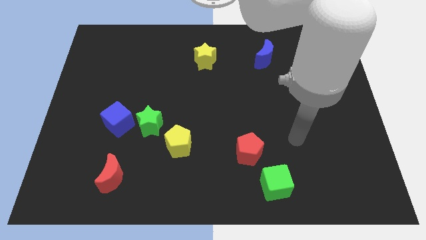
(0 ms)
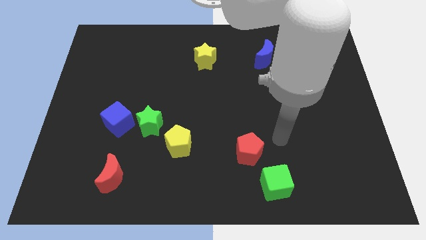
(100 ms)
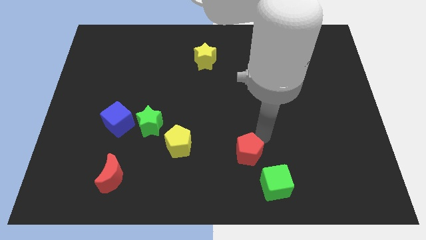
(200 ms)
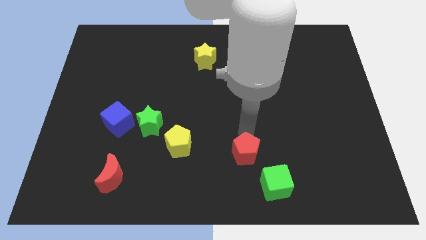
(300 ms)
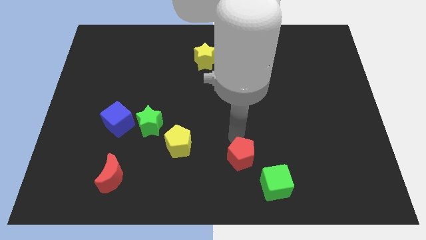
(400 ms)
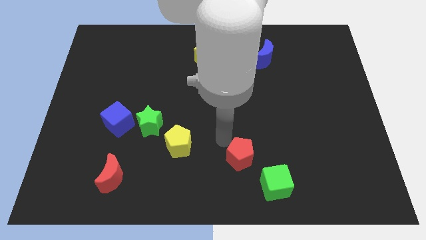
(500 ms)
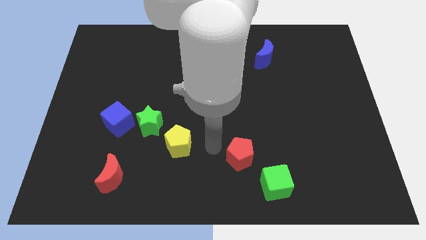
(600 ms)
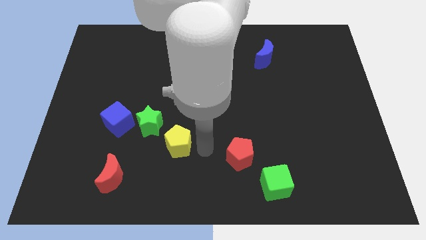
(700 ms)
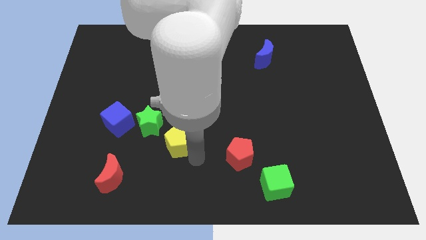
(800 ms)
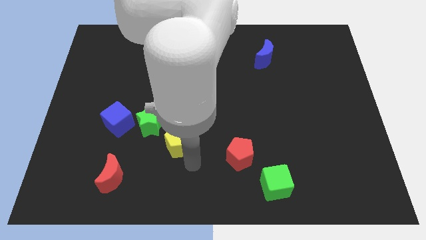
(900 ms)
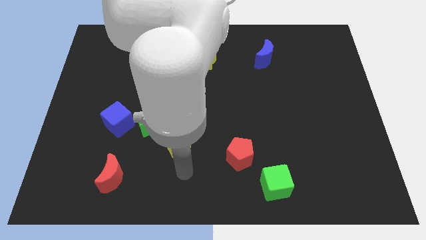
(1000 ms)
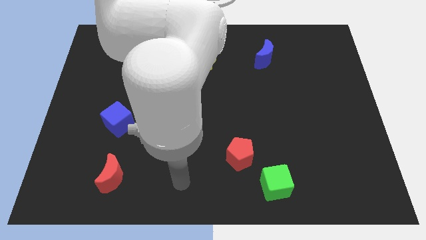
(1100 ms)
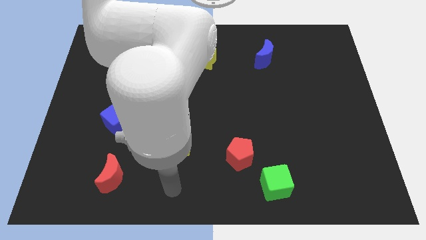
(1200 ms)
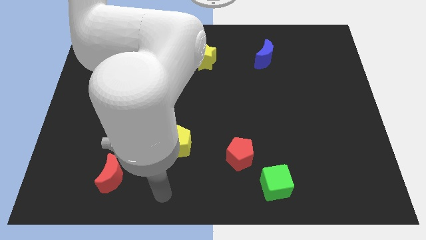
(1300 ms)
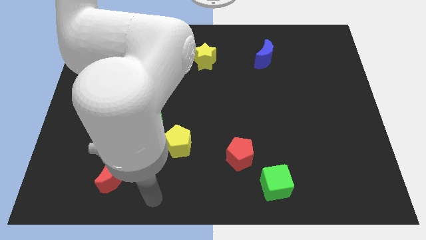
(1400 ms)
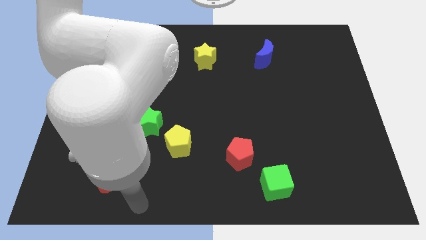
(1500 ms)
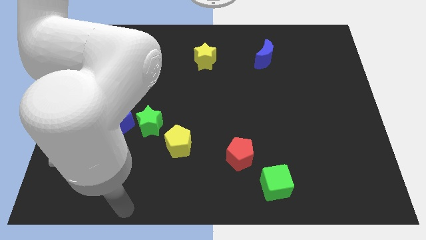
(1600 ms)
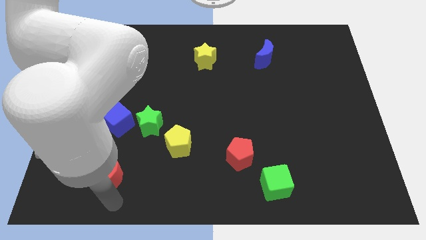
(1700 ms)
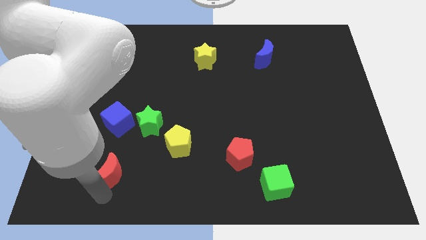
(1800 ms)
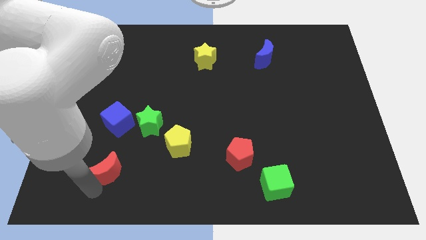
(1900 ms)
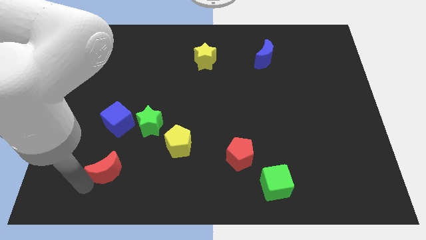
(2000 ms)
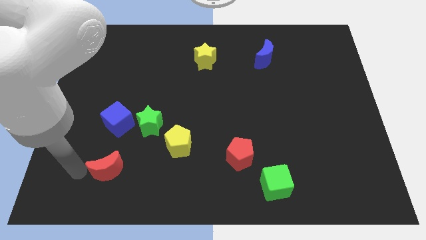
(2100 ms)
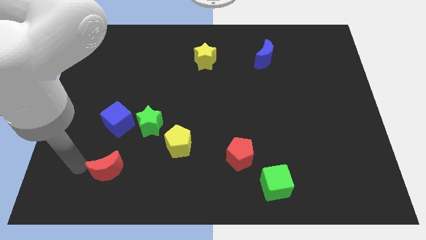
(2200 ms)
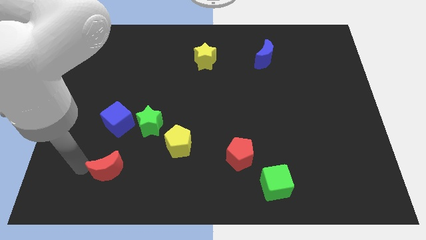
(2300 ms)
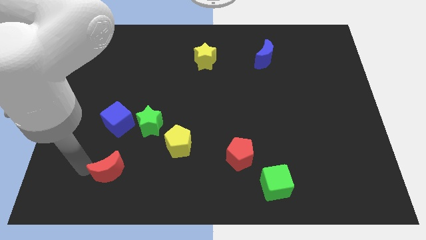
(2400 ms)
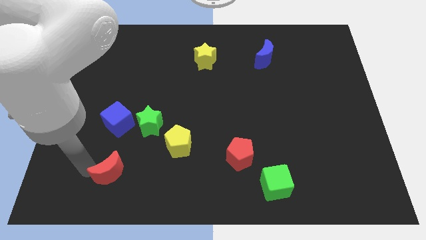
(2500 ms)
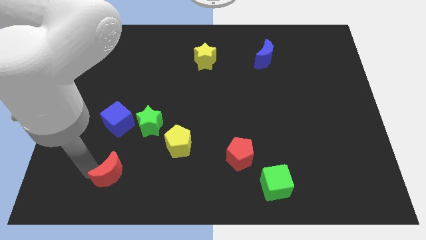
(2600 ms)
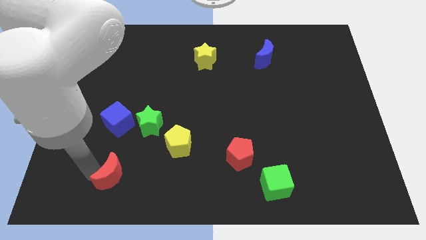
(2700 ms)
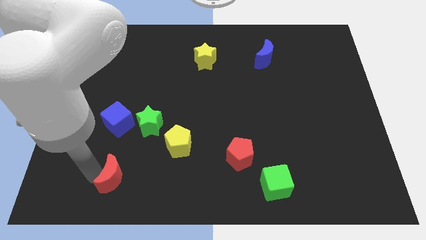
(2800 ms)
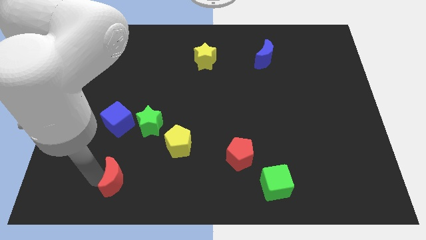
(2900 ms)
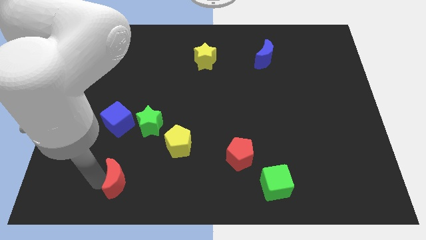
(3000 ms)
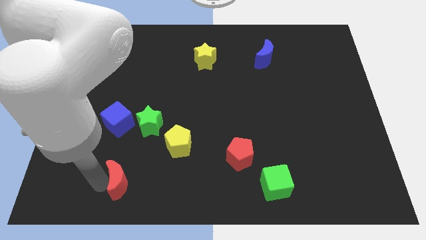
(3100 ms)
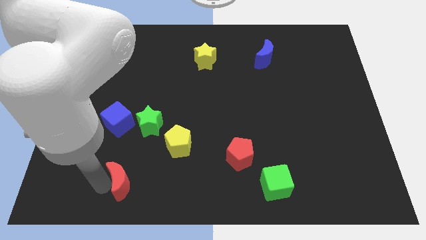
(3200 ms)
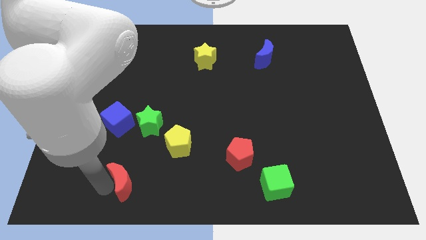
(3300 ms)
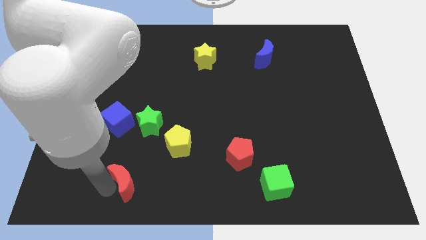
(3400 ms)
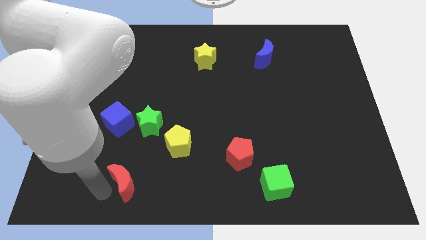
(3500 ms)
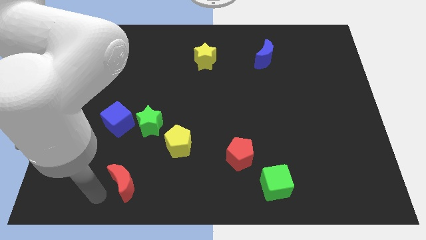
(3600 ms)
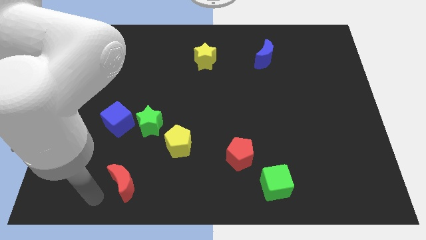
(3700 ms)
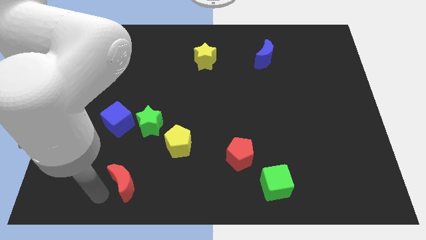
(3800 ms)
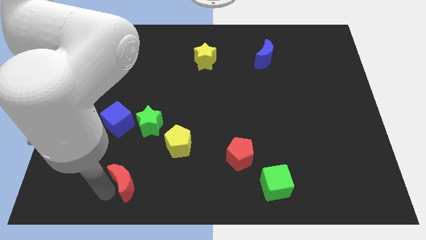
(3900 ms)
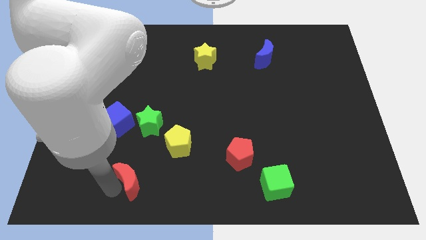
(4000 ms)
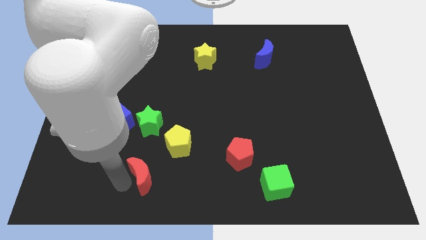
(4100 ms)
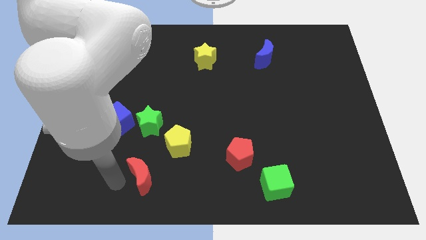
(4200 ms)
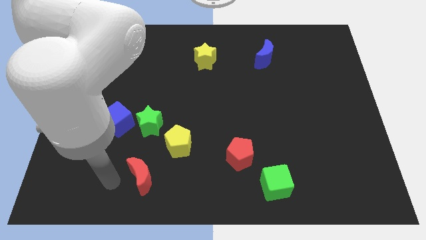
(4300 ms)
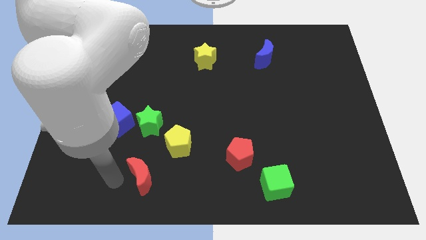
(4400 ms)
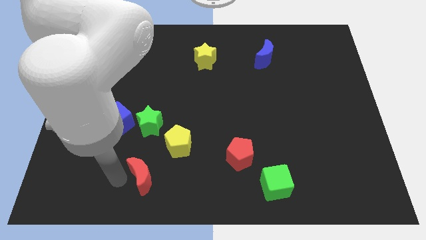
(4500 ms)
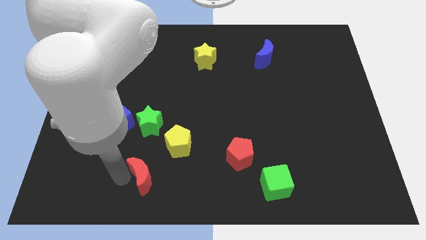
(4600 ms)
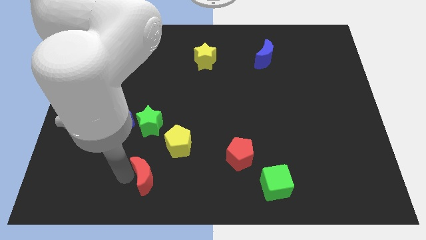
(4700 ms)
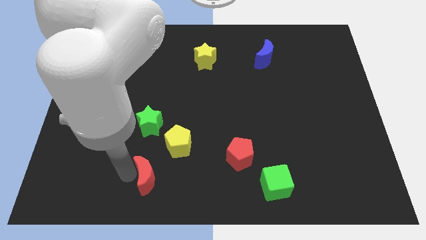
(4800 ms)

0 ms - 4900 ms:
push the red moon to the right a little bit

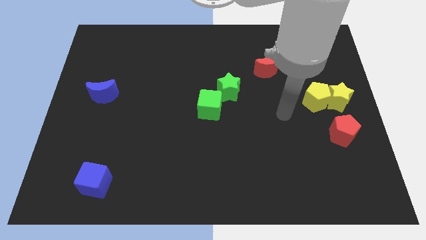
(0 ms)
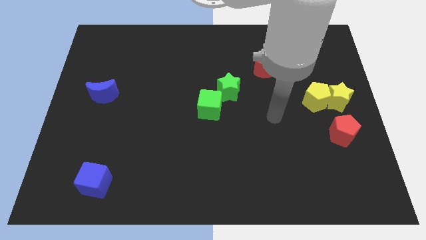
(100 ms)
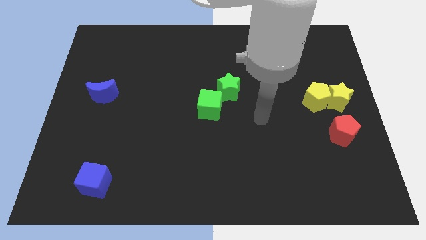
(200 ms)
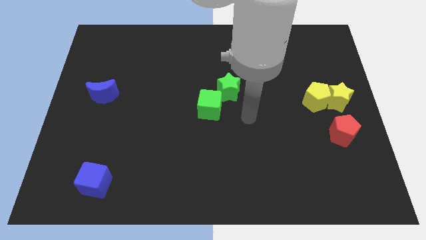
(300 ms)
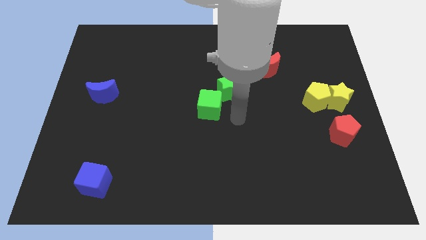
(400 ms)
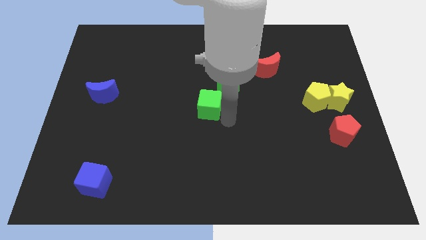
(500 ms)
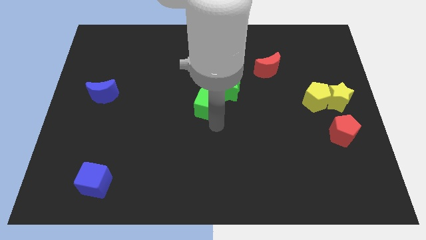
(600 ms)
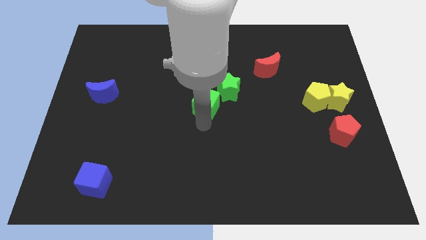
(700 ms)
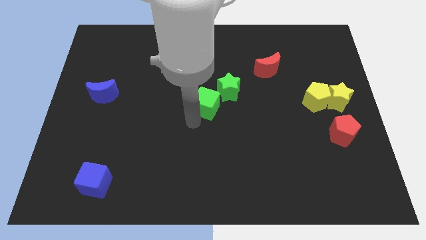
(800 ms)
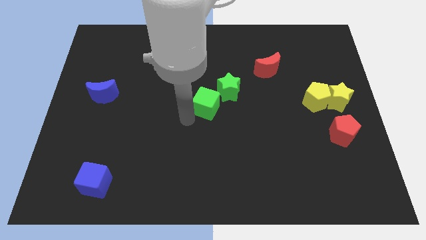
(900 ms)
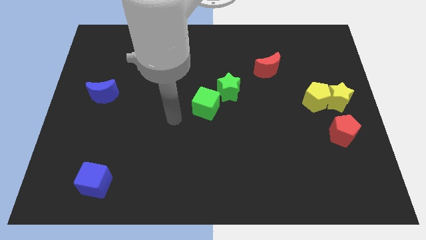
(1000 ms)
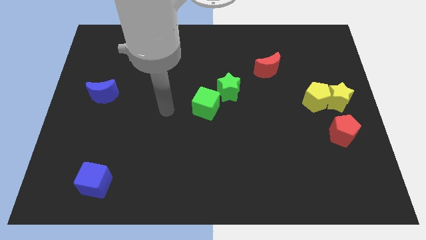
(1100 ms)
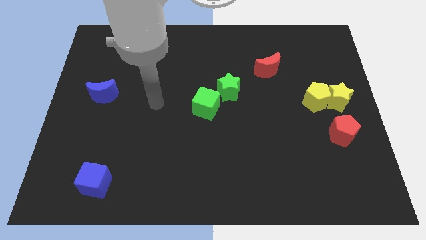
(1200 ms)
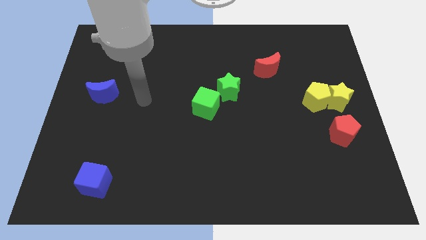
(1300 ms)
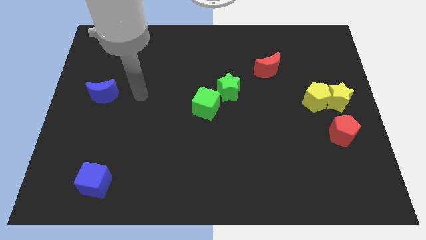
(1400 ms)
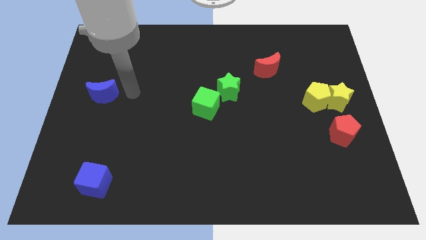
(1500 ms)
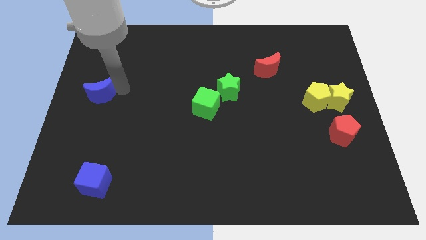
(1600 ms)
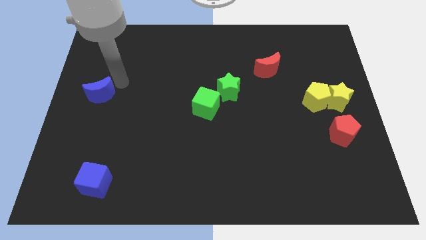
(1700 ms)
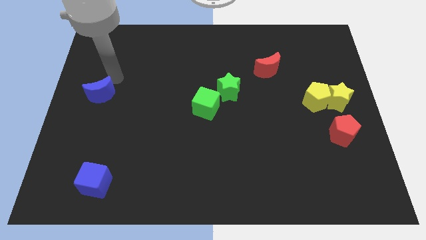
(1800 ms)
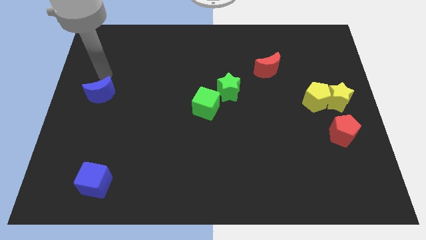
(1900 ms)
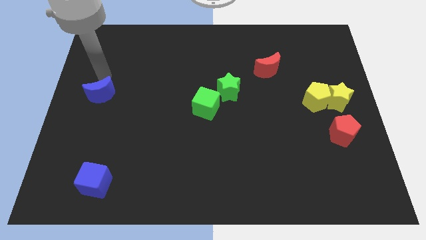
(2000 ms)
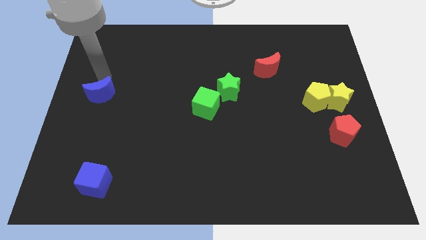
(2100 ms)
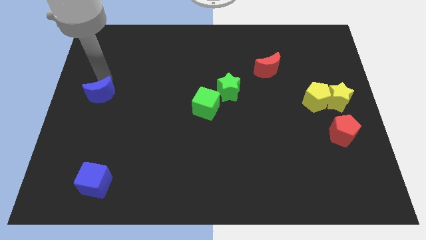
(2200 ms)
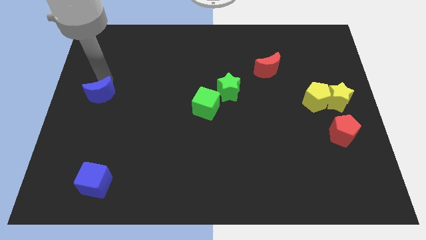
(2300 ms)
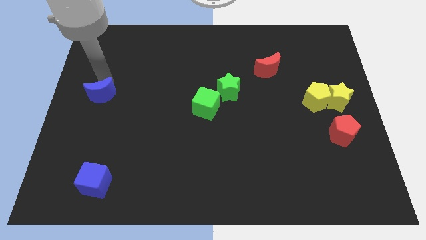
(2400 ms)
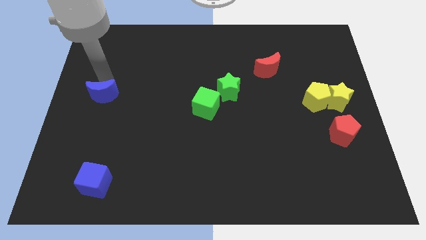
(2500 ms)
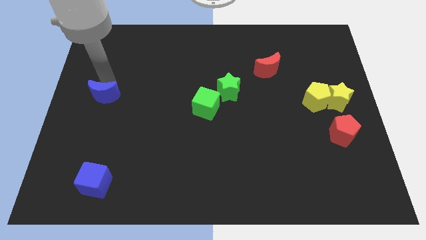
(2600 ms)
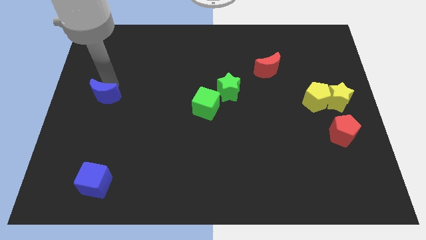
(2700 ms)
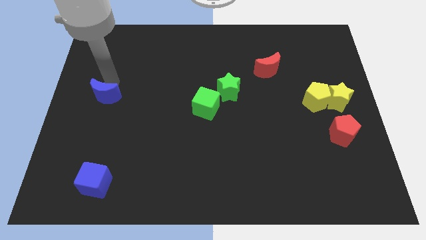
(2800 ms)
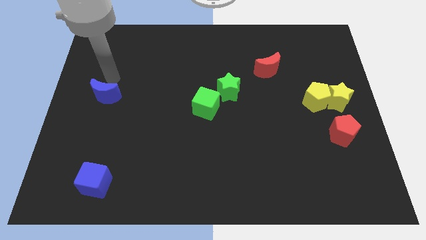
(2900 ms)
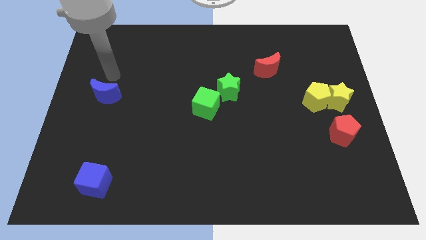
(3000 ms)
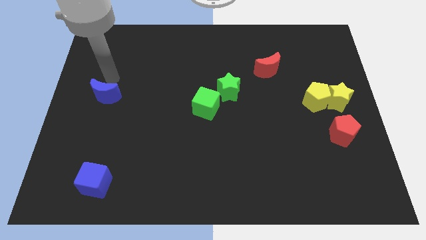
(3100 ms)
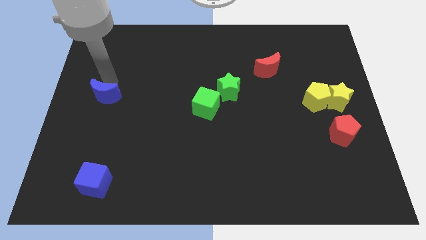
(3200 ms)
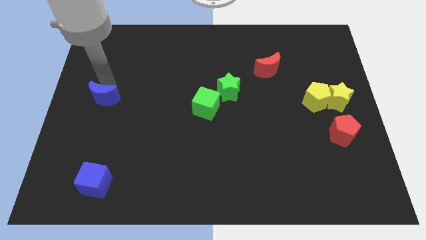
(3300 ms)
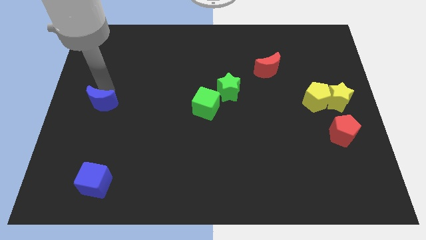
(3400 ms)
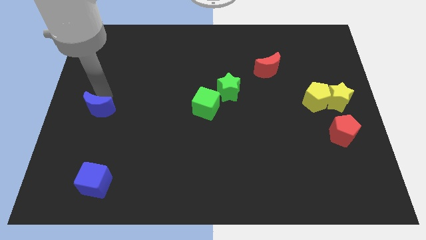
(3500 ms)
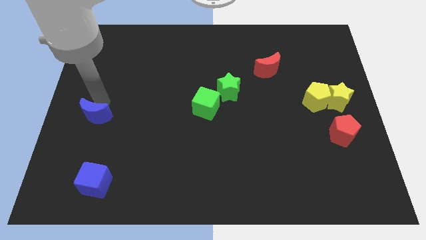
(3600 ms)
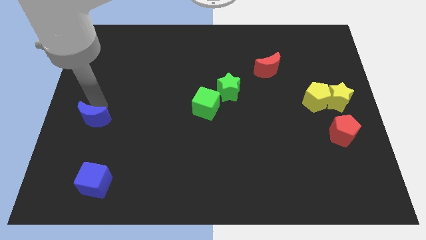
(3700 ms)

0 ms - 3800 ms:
move the blue moon downwards somewhat
